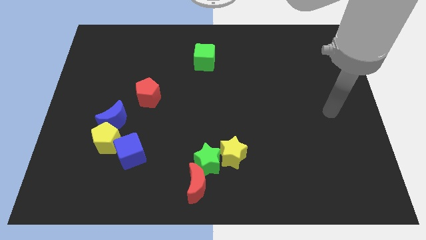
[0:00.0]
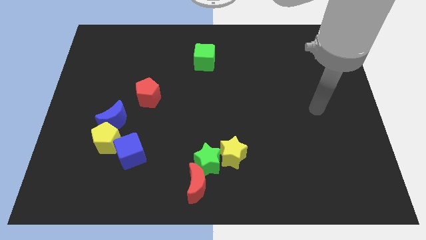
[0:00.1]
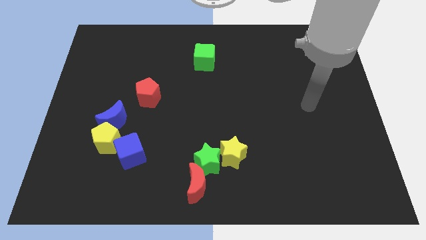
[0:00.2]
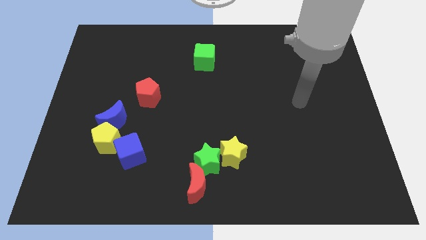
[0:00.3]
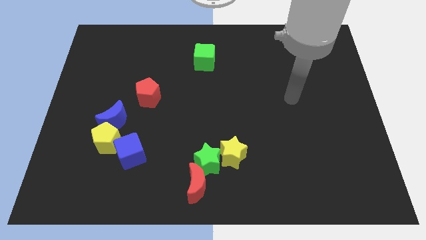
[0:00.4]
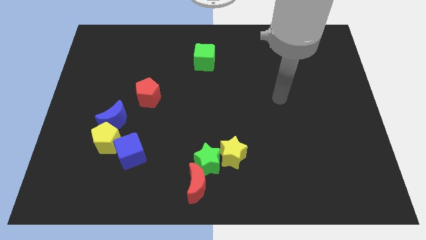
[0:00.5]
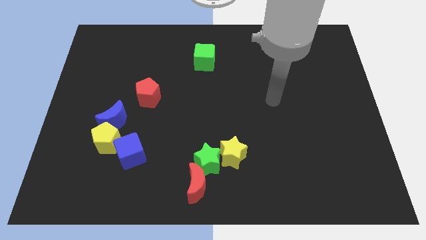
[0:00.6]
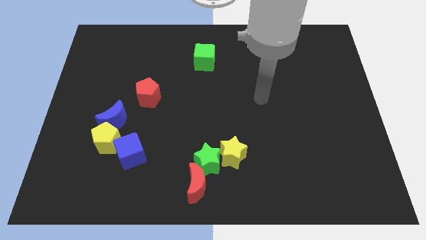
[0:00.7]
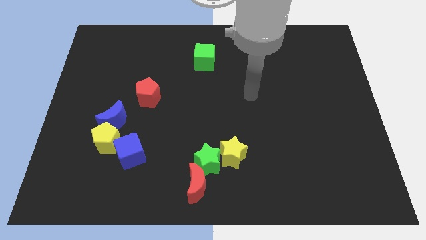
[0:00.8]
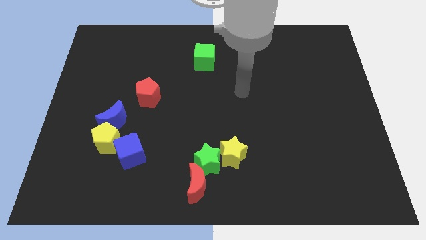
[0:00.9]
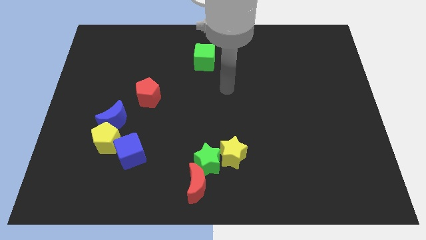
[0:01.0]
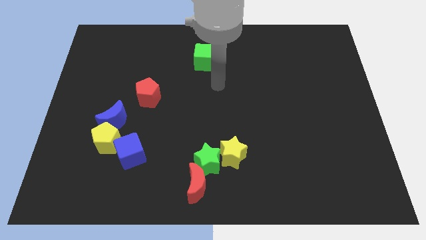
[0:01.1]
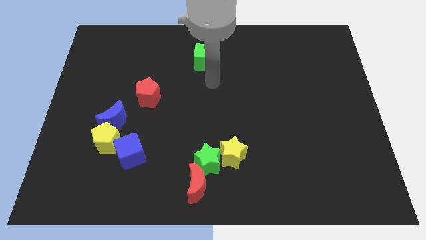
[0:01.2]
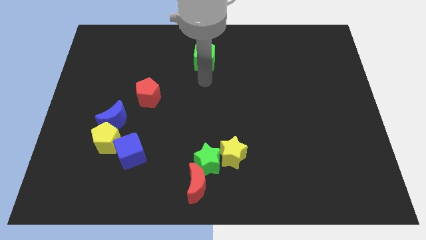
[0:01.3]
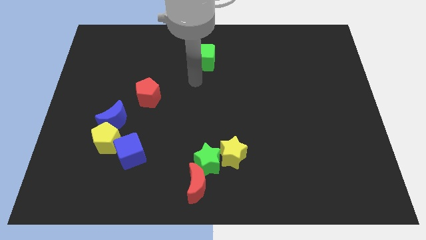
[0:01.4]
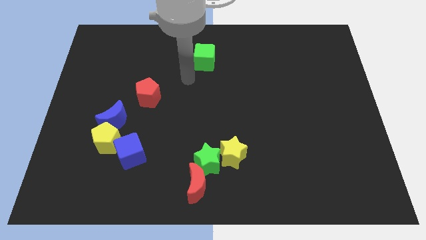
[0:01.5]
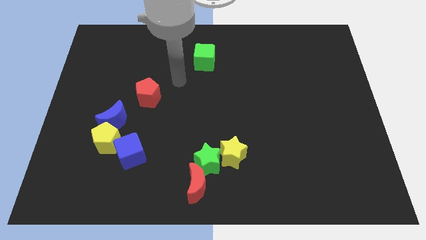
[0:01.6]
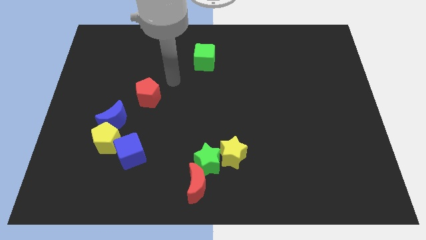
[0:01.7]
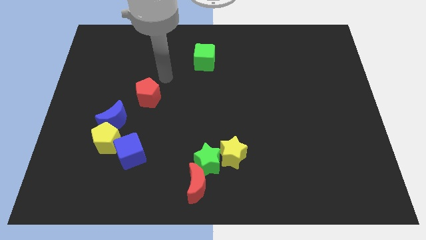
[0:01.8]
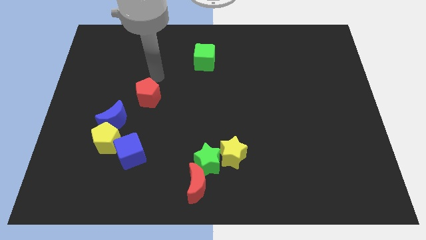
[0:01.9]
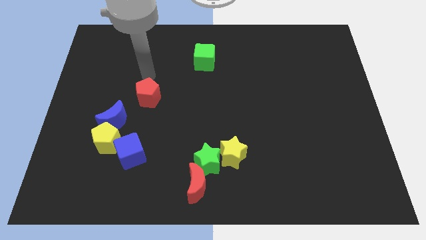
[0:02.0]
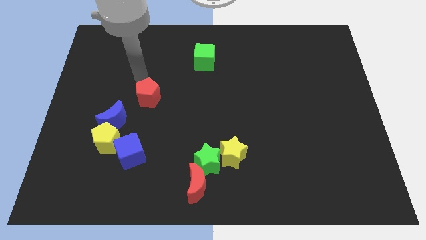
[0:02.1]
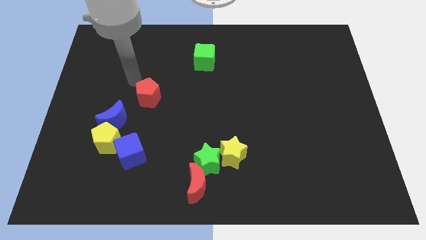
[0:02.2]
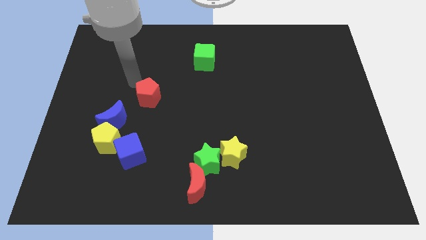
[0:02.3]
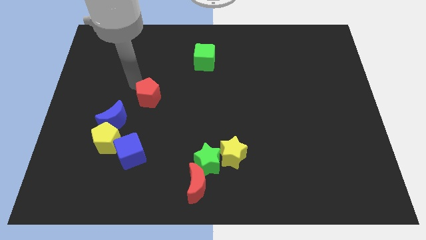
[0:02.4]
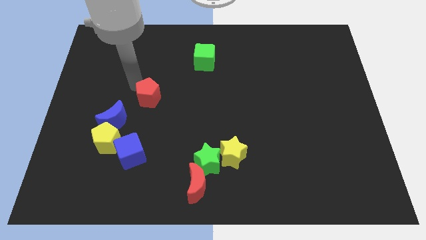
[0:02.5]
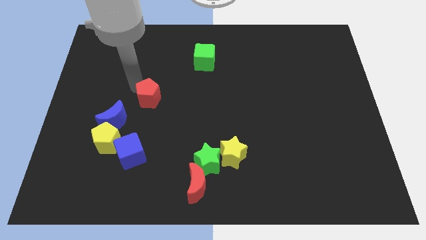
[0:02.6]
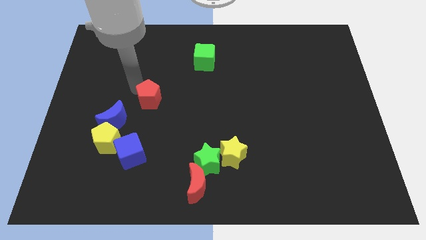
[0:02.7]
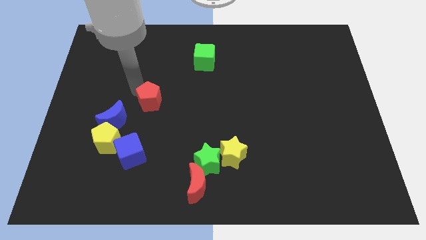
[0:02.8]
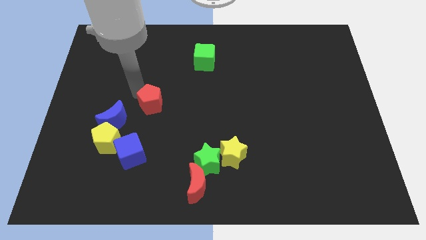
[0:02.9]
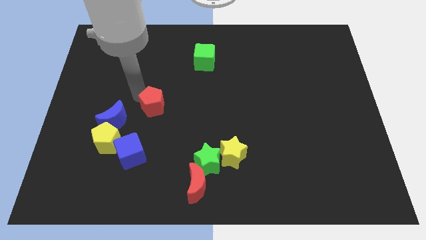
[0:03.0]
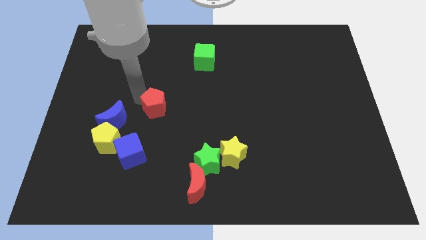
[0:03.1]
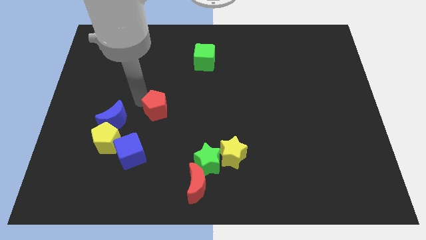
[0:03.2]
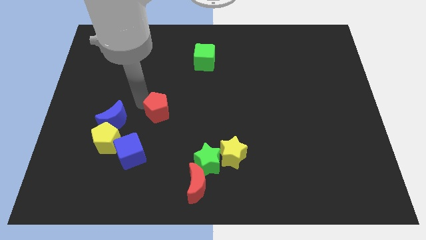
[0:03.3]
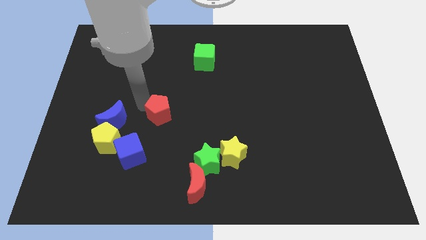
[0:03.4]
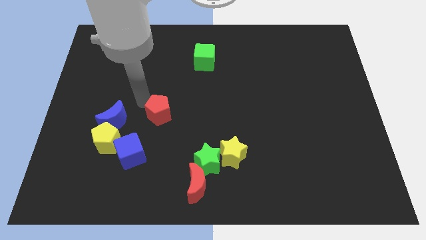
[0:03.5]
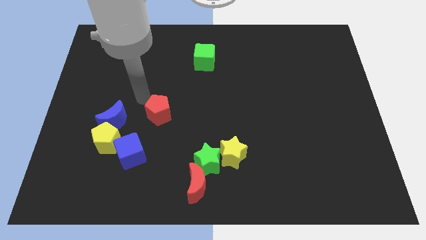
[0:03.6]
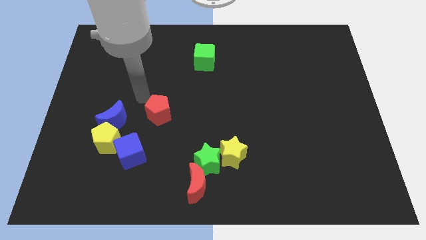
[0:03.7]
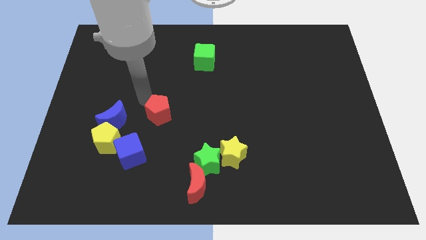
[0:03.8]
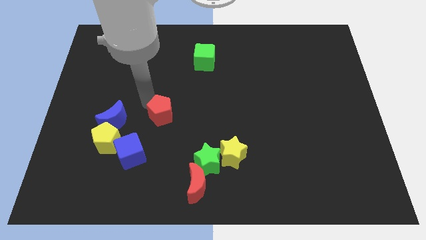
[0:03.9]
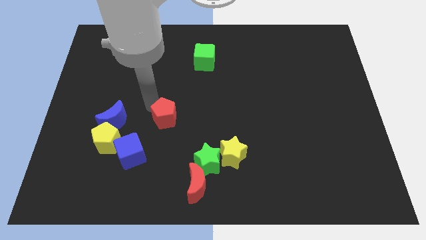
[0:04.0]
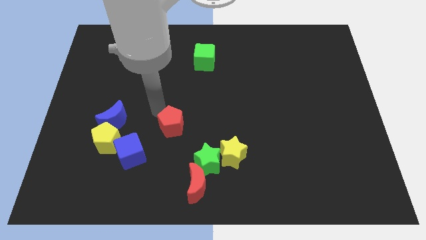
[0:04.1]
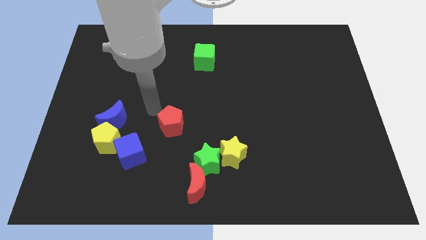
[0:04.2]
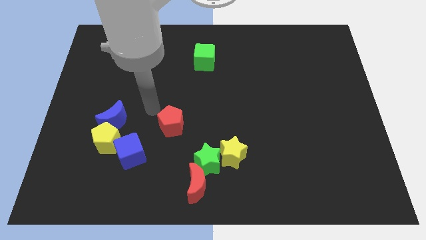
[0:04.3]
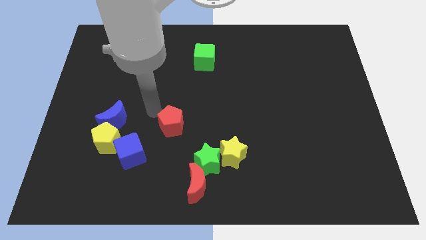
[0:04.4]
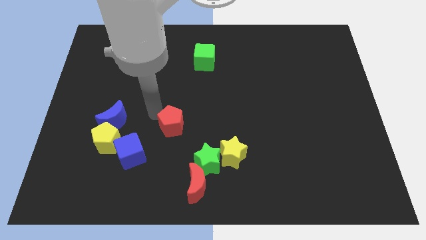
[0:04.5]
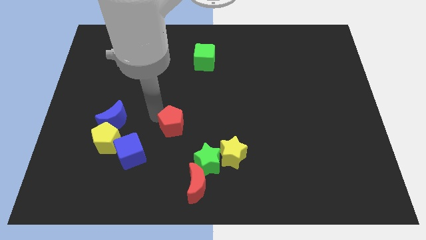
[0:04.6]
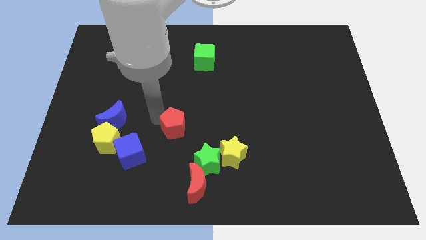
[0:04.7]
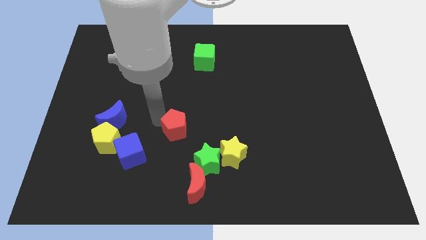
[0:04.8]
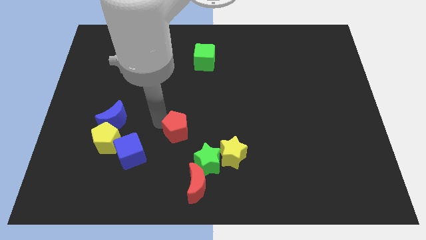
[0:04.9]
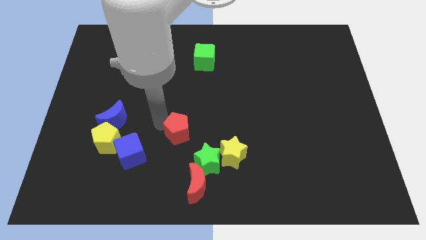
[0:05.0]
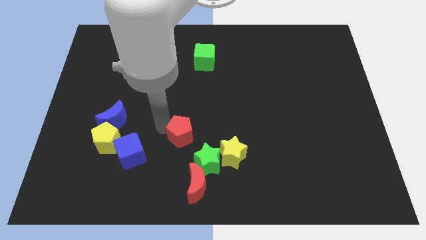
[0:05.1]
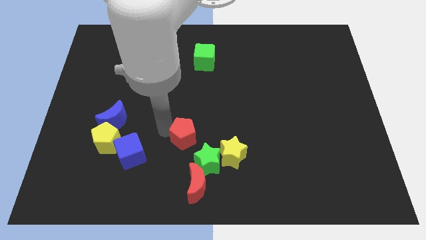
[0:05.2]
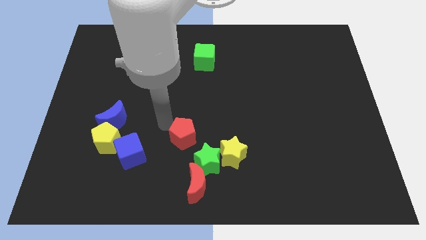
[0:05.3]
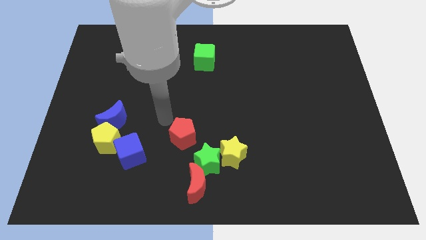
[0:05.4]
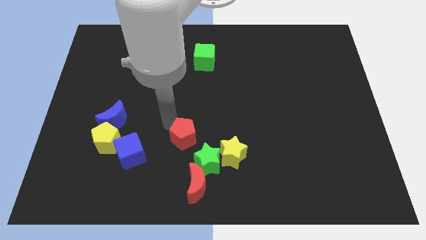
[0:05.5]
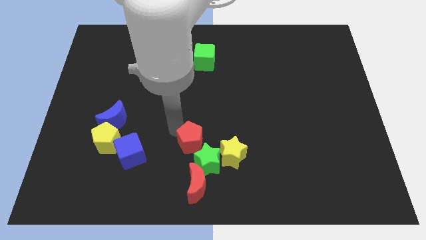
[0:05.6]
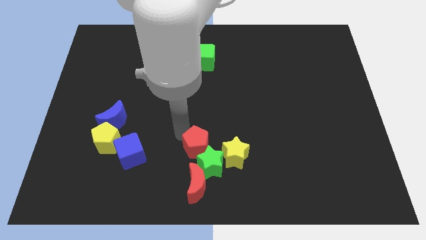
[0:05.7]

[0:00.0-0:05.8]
put the red pentagon towards the green star

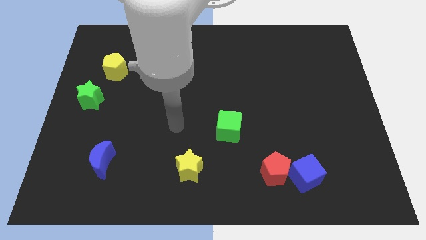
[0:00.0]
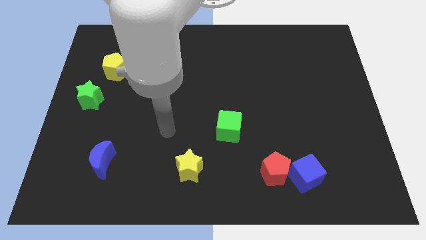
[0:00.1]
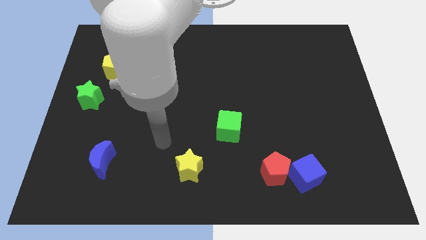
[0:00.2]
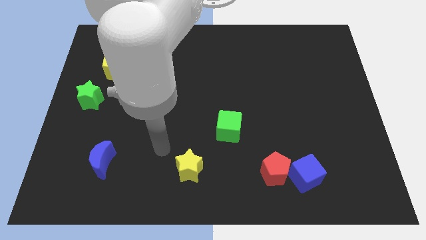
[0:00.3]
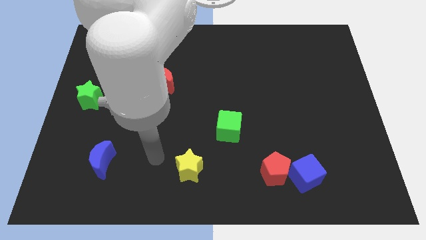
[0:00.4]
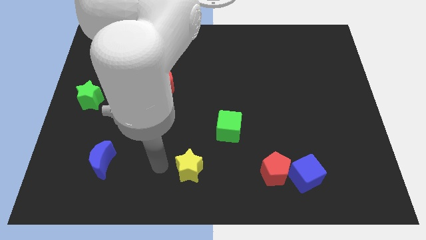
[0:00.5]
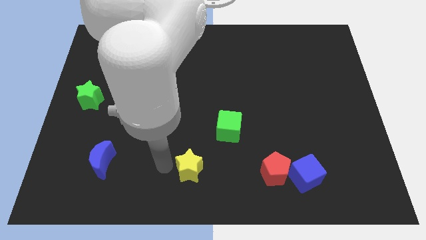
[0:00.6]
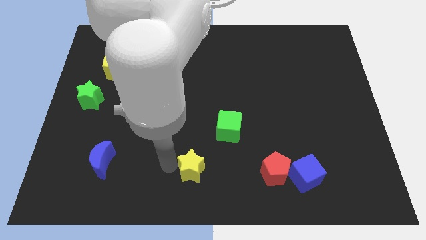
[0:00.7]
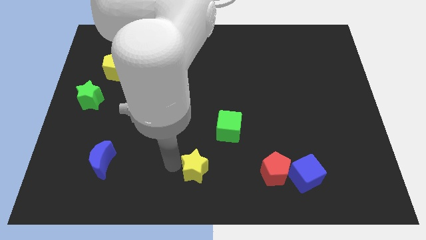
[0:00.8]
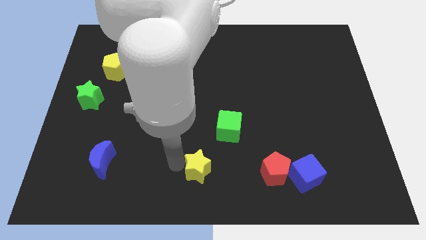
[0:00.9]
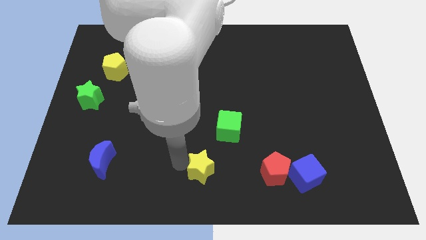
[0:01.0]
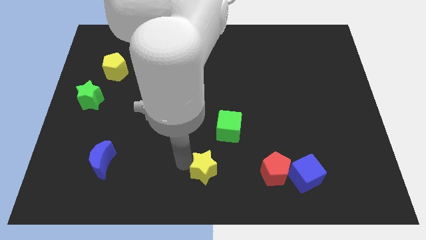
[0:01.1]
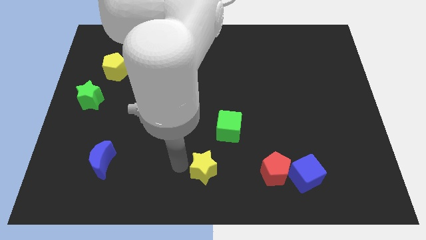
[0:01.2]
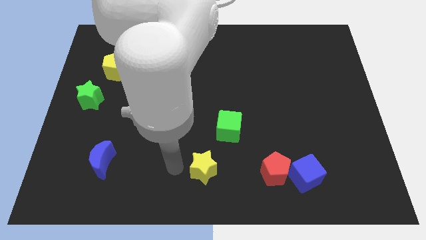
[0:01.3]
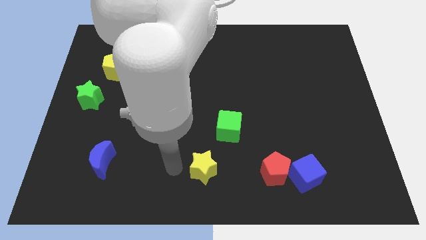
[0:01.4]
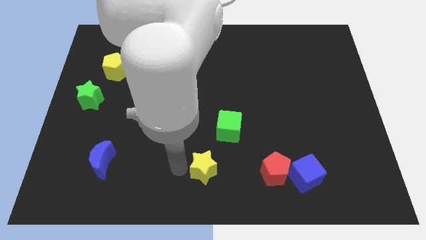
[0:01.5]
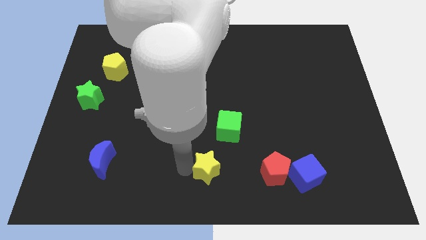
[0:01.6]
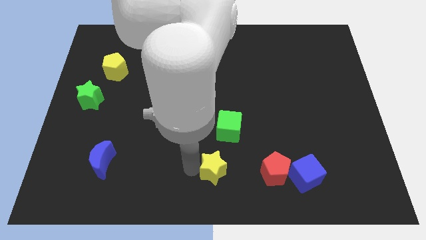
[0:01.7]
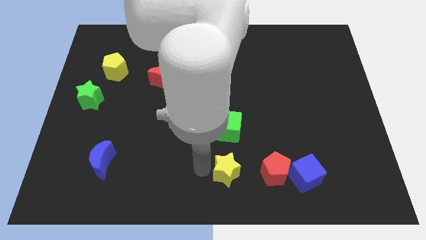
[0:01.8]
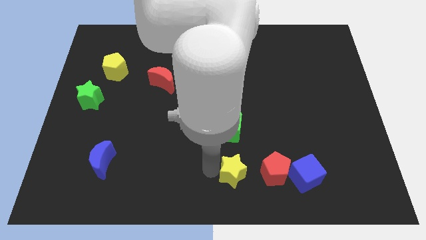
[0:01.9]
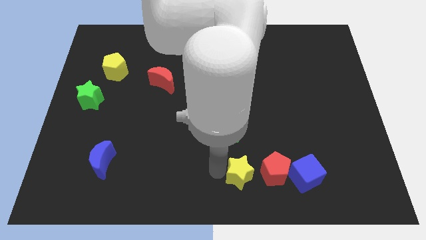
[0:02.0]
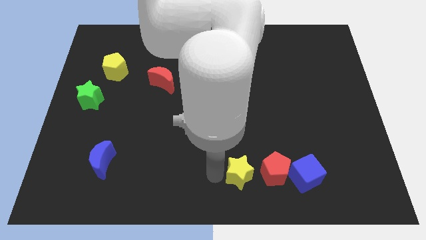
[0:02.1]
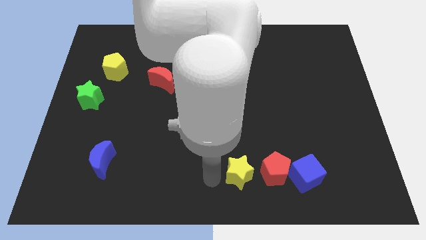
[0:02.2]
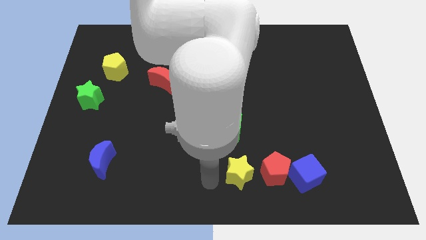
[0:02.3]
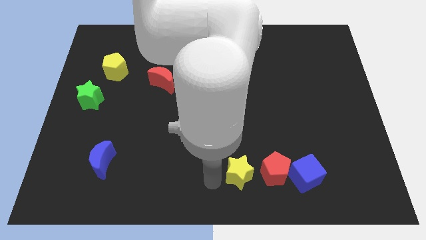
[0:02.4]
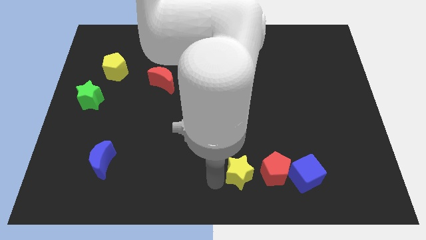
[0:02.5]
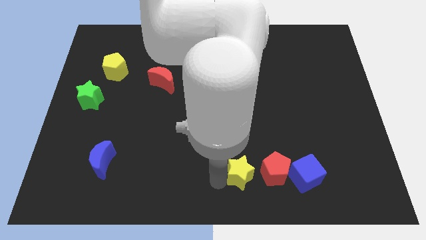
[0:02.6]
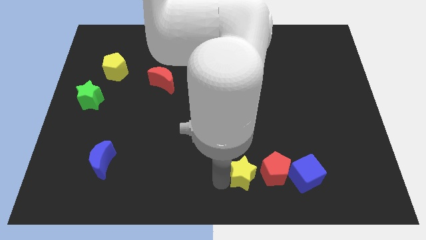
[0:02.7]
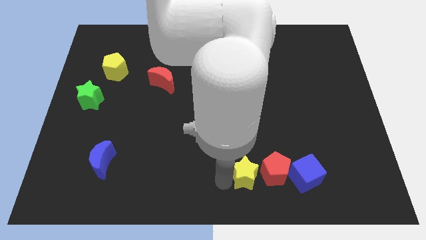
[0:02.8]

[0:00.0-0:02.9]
slide the yellow star to the red pentagon
